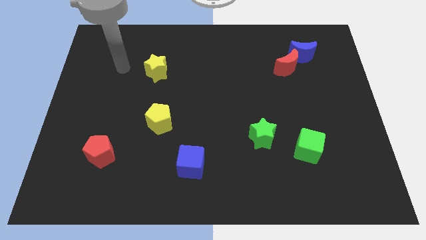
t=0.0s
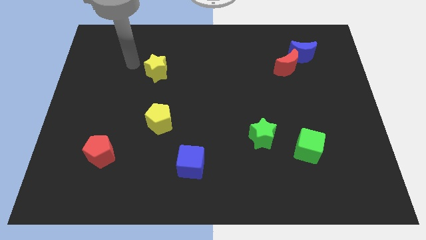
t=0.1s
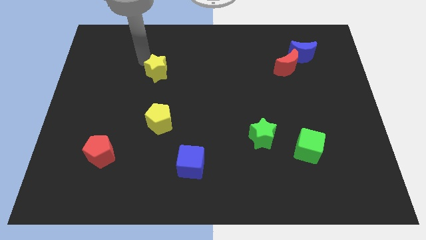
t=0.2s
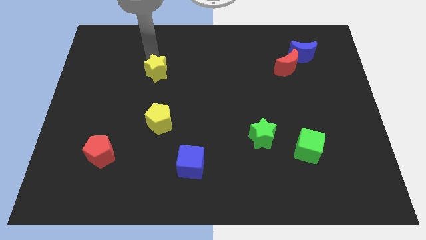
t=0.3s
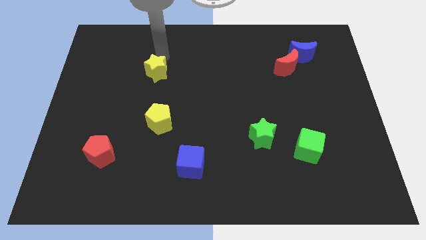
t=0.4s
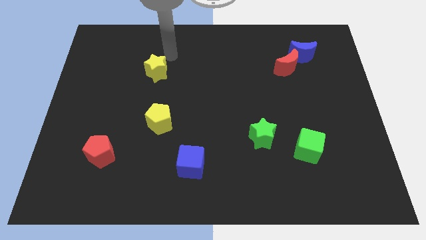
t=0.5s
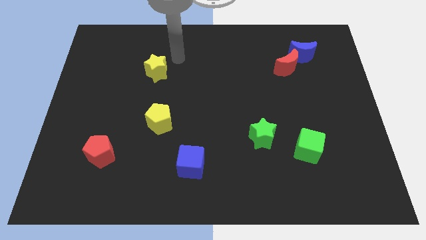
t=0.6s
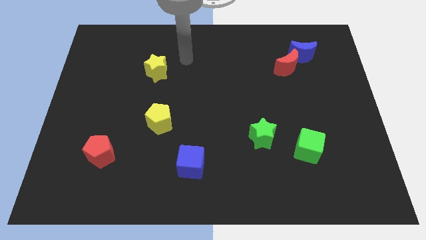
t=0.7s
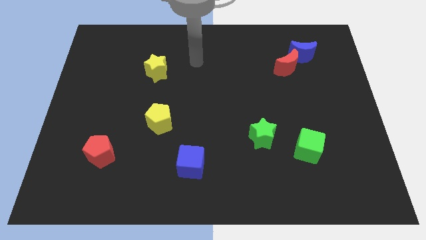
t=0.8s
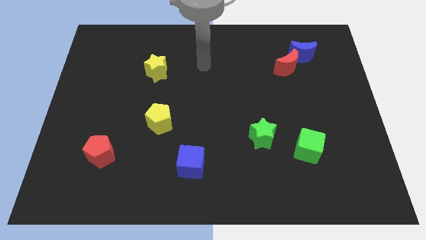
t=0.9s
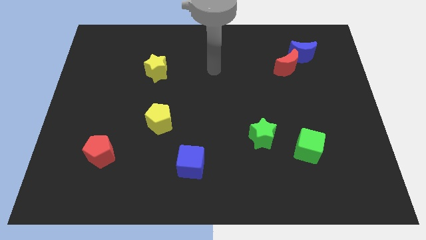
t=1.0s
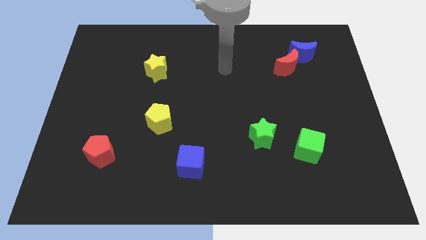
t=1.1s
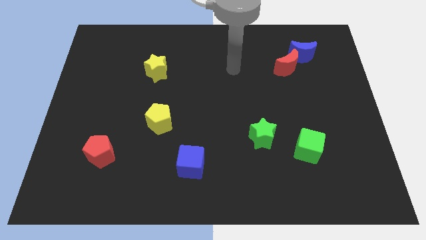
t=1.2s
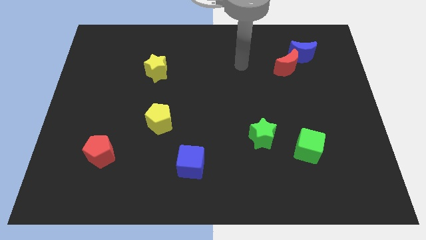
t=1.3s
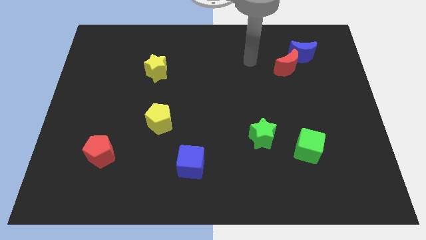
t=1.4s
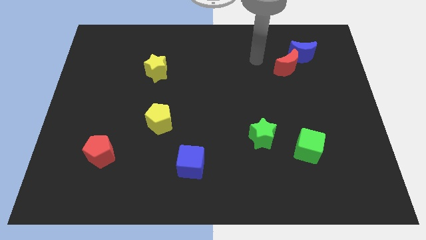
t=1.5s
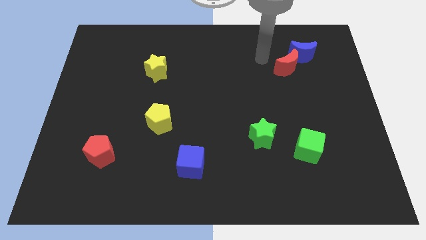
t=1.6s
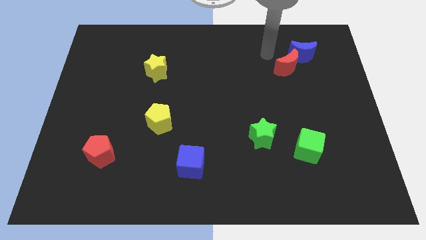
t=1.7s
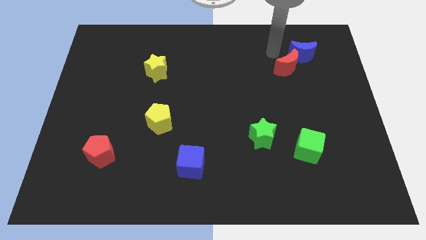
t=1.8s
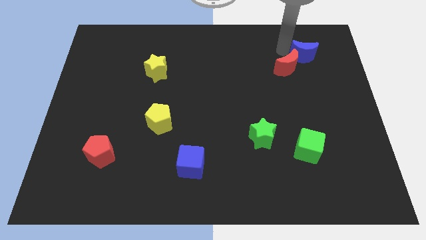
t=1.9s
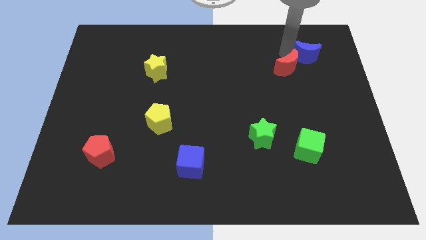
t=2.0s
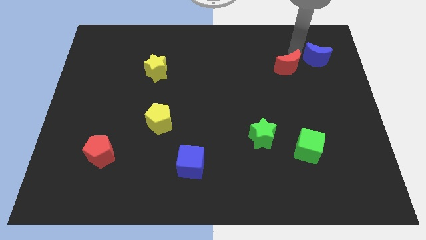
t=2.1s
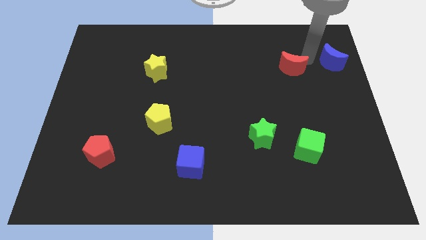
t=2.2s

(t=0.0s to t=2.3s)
move the red moon away from the blue moon

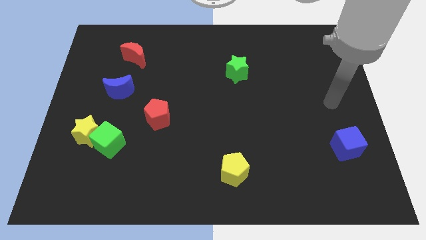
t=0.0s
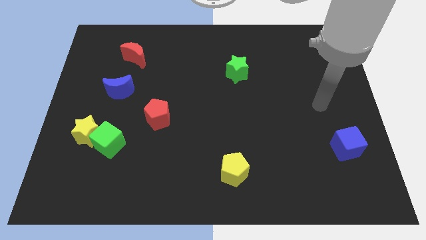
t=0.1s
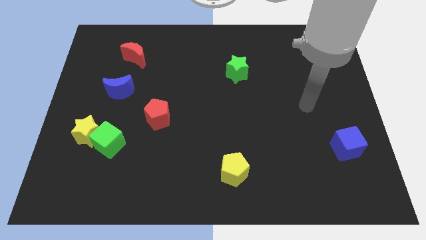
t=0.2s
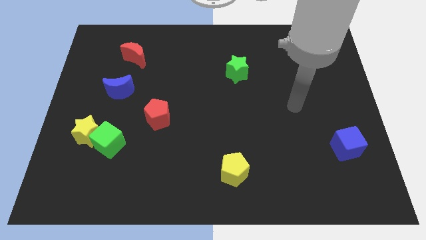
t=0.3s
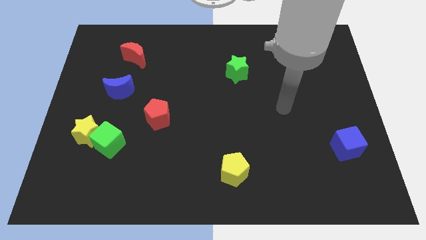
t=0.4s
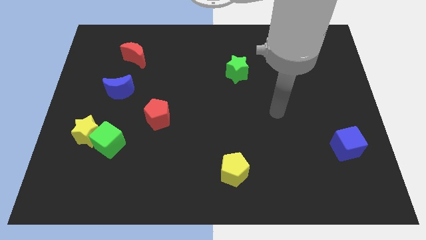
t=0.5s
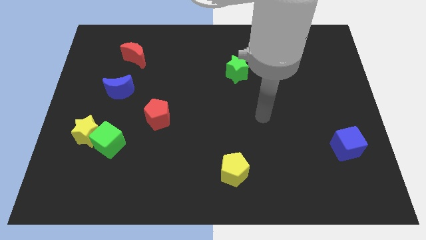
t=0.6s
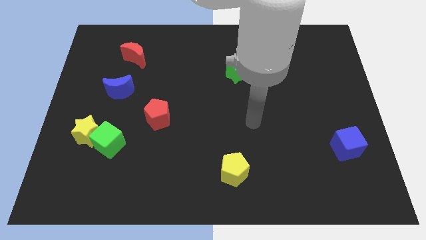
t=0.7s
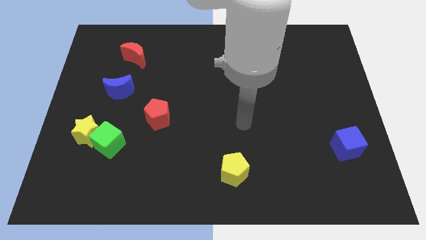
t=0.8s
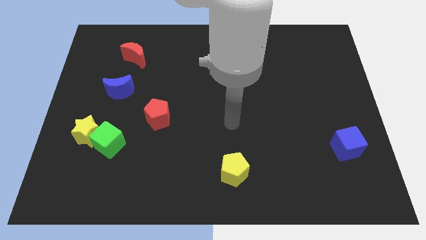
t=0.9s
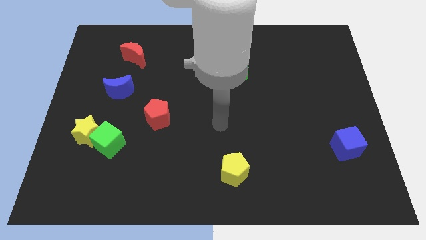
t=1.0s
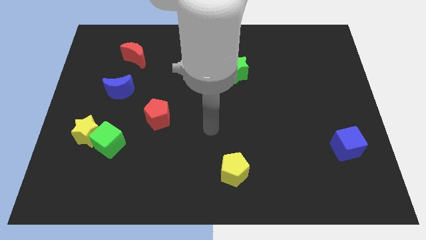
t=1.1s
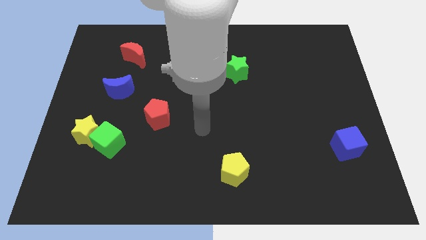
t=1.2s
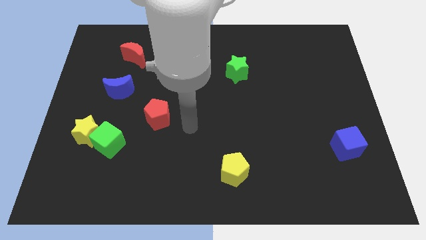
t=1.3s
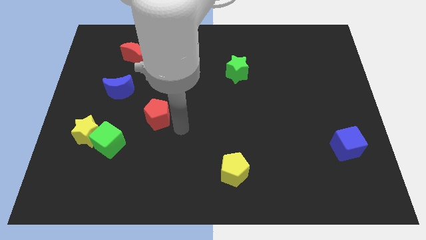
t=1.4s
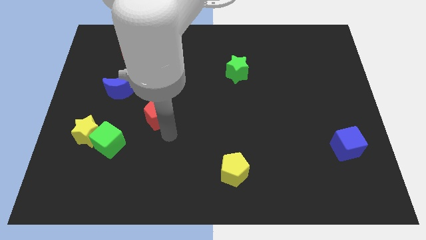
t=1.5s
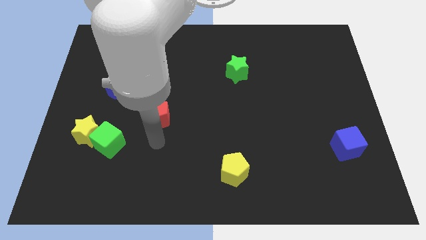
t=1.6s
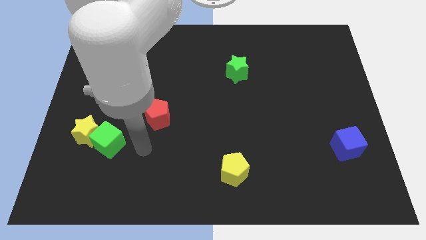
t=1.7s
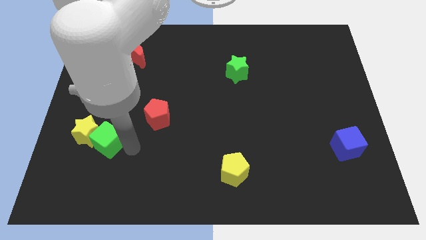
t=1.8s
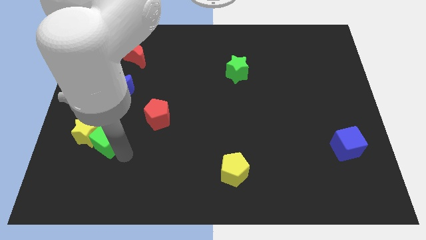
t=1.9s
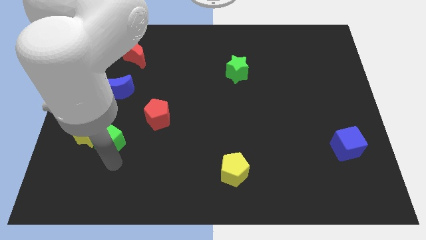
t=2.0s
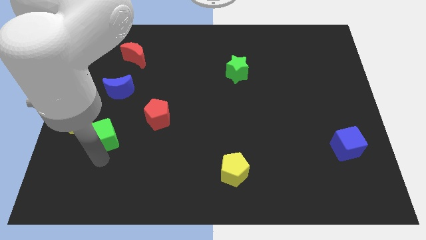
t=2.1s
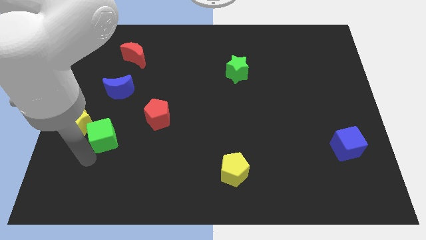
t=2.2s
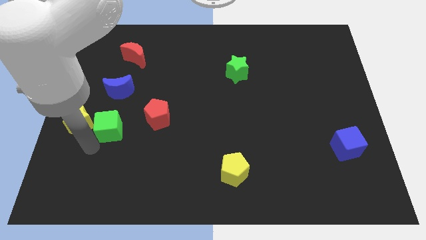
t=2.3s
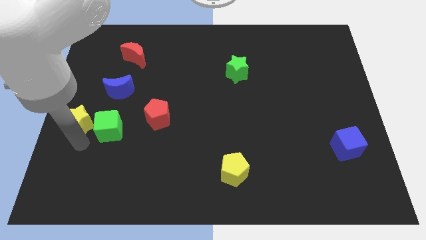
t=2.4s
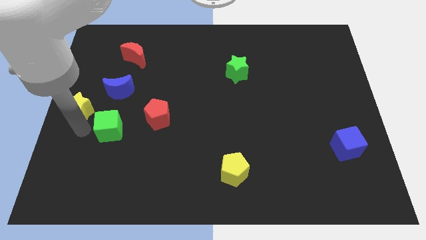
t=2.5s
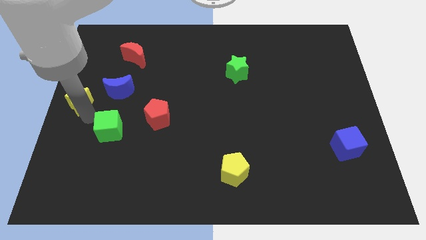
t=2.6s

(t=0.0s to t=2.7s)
pull the green cube apart from the yellow star

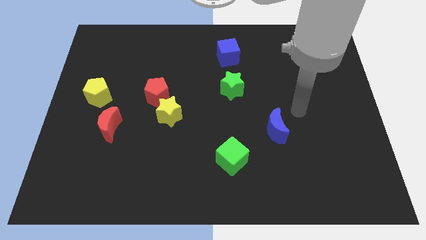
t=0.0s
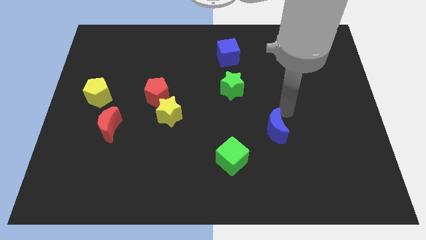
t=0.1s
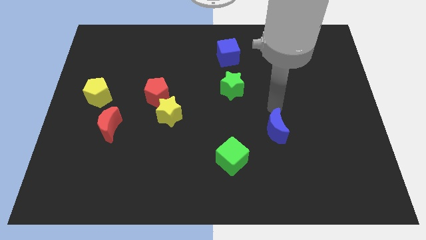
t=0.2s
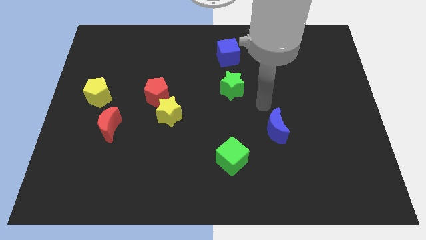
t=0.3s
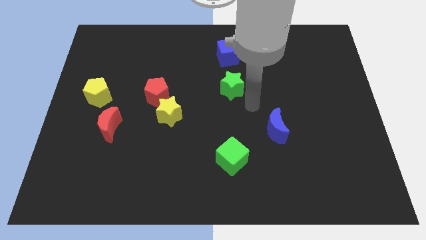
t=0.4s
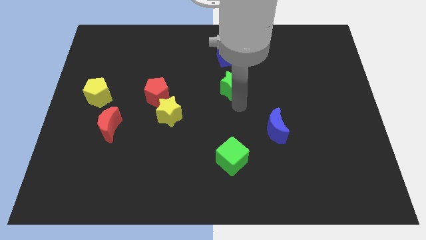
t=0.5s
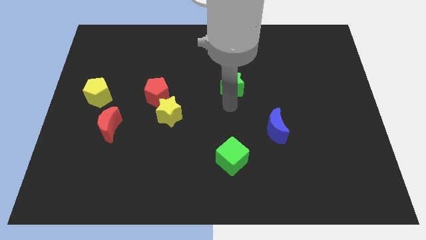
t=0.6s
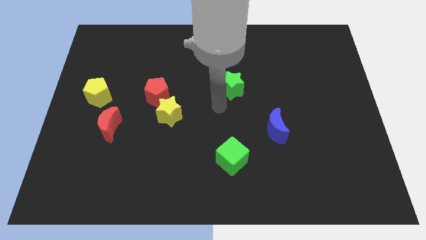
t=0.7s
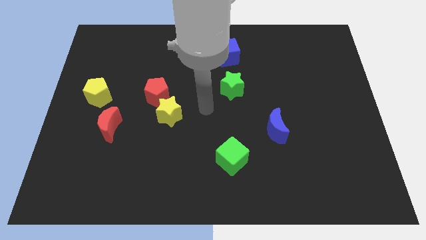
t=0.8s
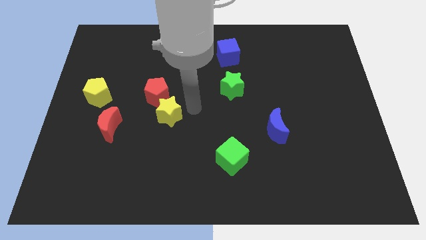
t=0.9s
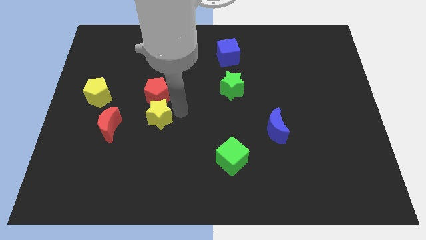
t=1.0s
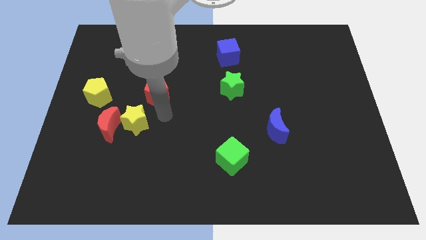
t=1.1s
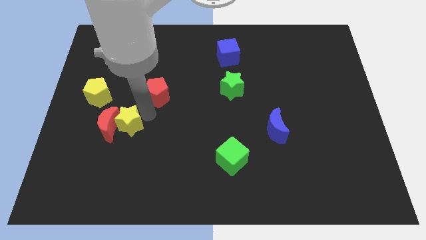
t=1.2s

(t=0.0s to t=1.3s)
pull the red pentagon apart from the yellow star

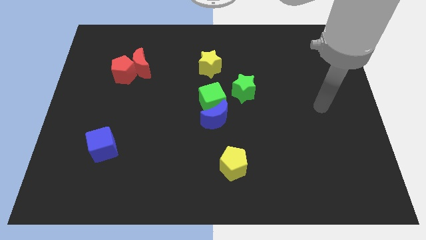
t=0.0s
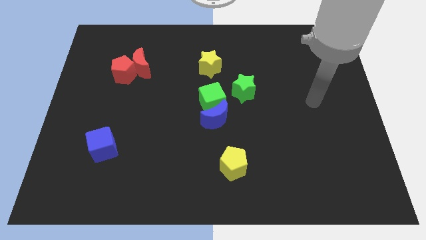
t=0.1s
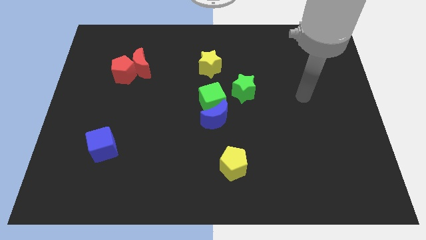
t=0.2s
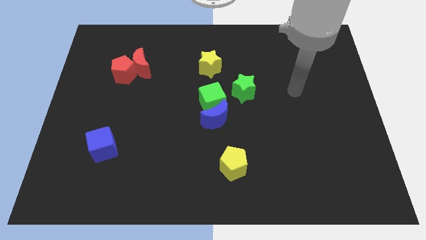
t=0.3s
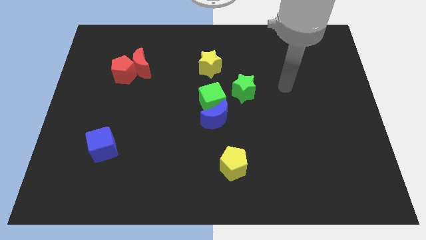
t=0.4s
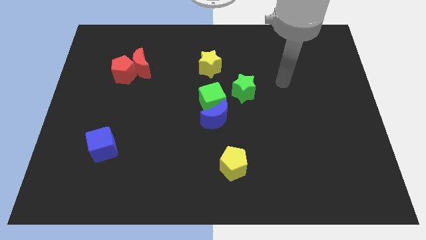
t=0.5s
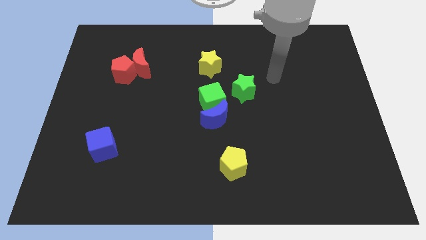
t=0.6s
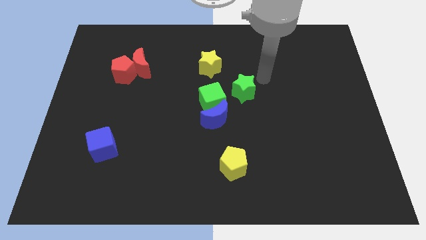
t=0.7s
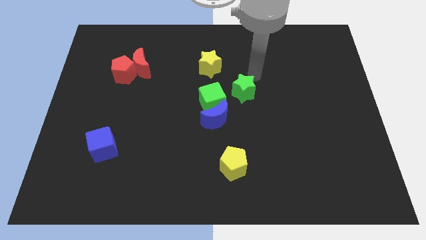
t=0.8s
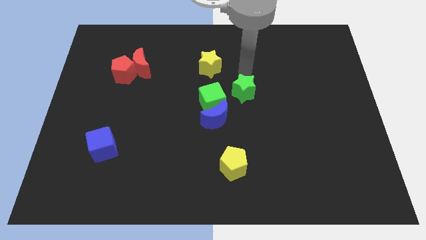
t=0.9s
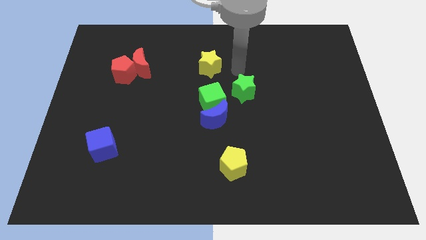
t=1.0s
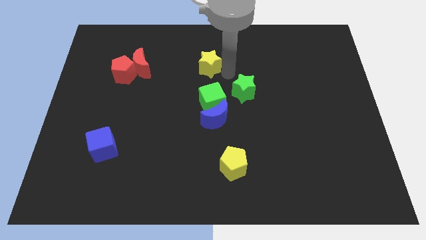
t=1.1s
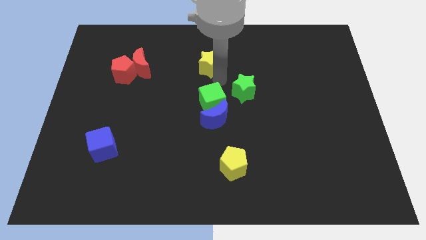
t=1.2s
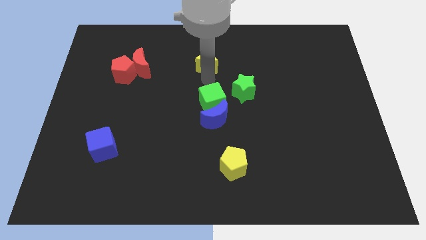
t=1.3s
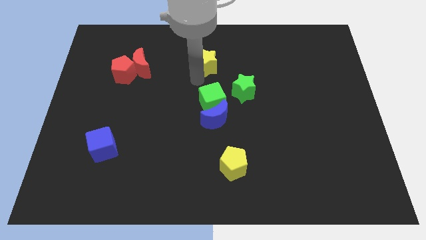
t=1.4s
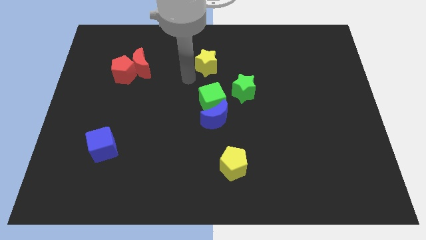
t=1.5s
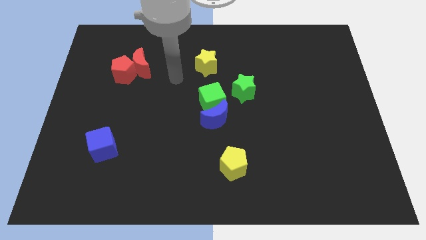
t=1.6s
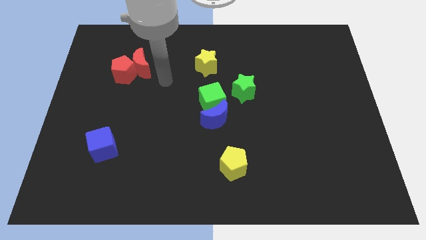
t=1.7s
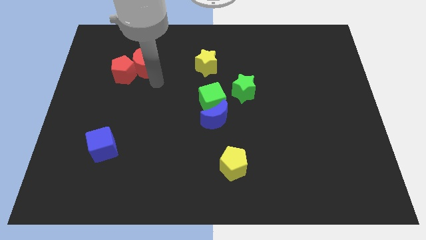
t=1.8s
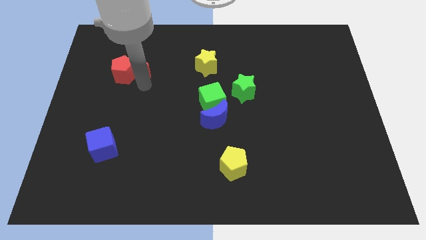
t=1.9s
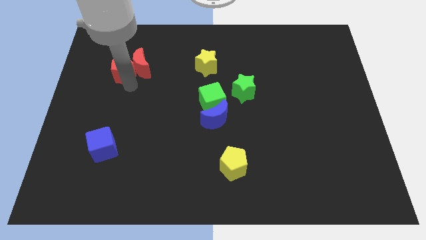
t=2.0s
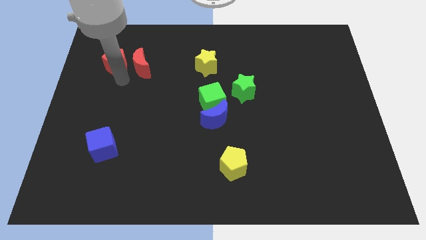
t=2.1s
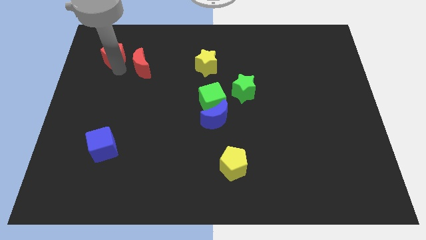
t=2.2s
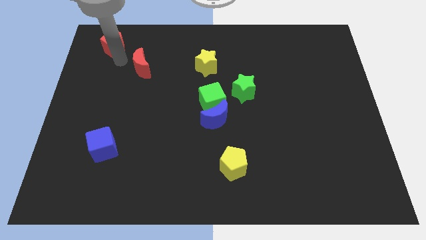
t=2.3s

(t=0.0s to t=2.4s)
pull the red moon apart from the red pentagon

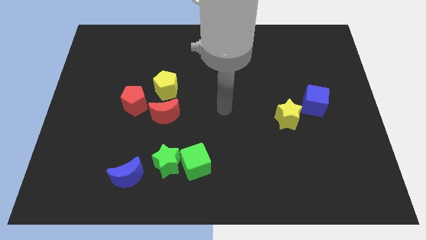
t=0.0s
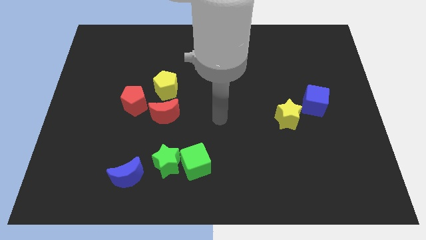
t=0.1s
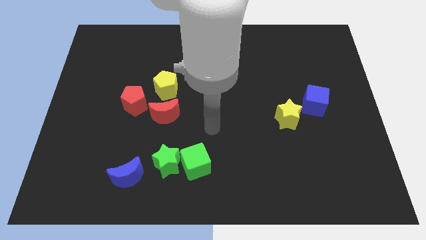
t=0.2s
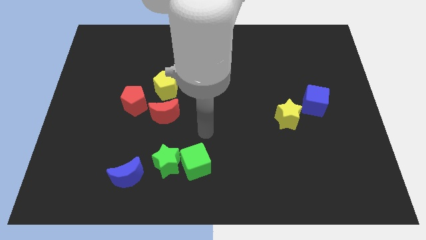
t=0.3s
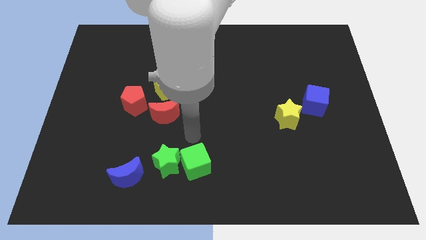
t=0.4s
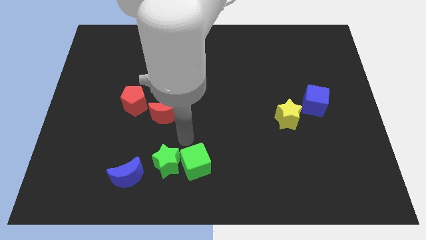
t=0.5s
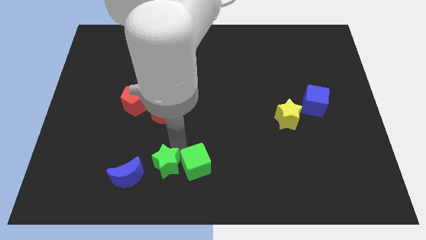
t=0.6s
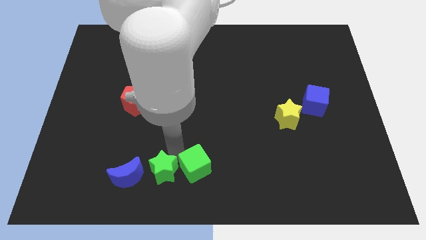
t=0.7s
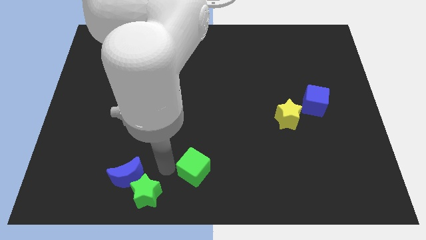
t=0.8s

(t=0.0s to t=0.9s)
separate the green cube from the green star
